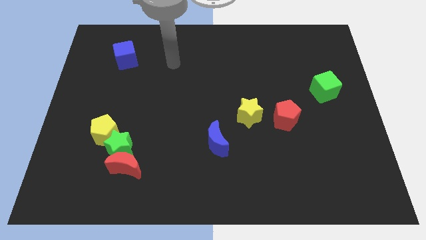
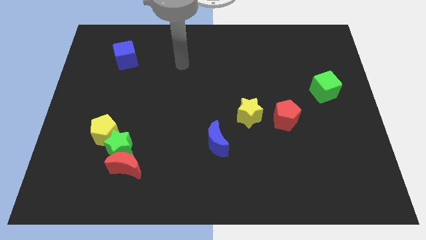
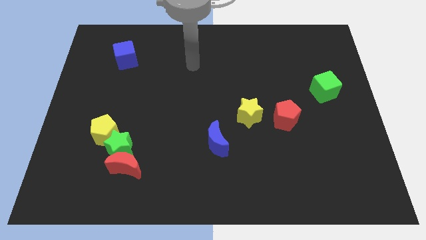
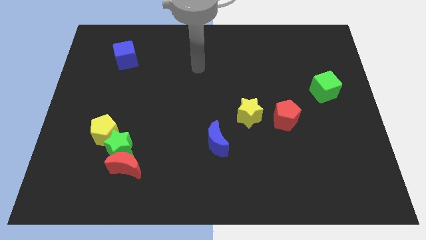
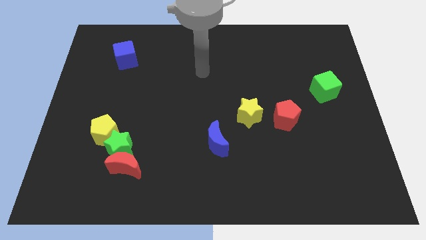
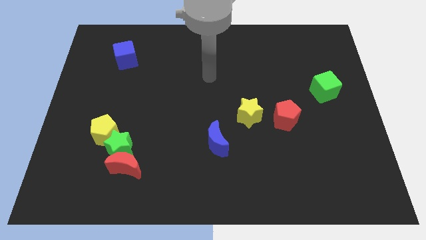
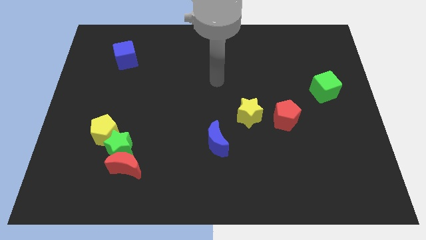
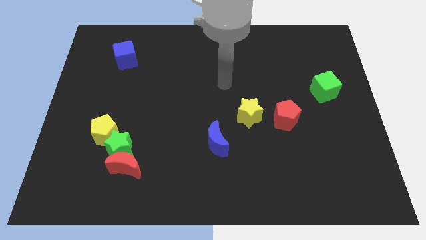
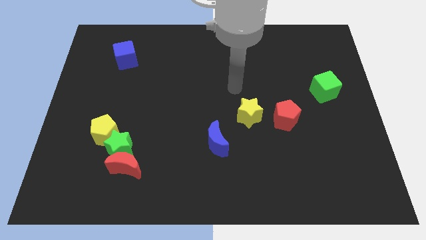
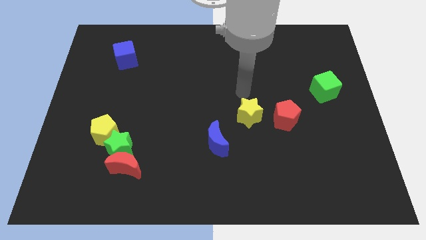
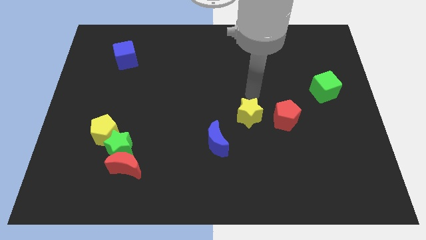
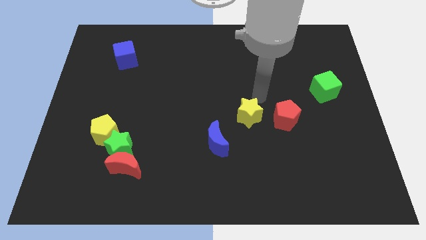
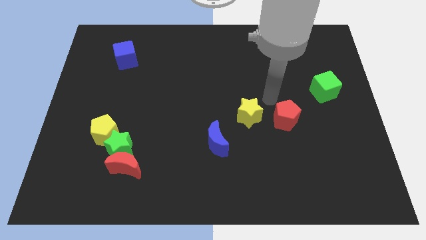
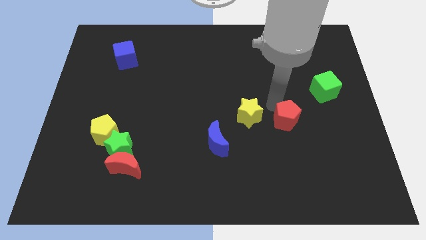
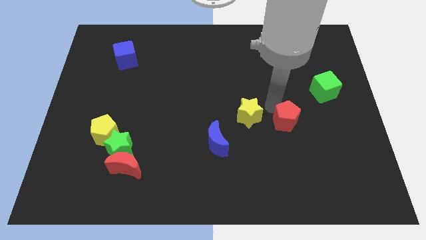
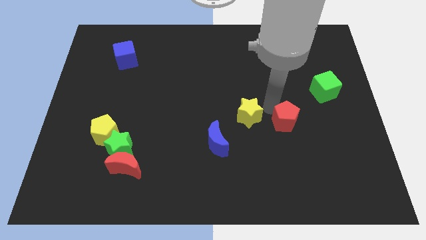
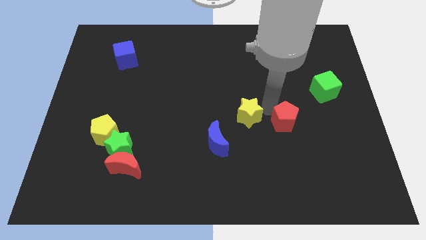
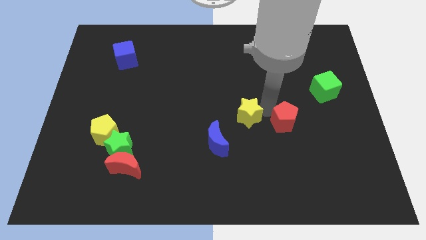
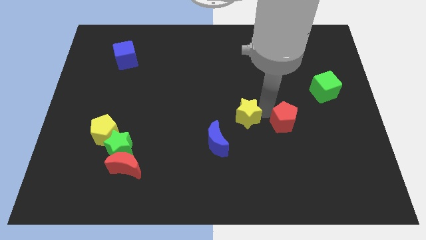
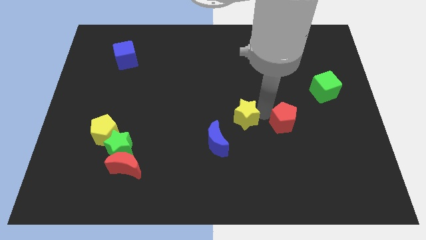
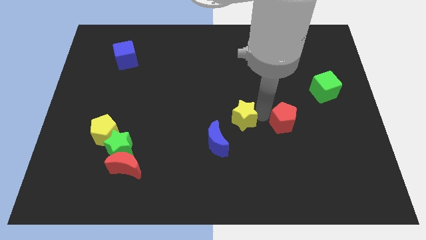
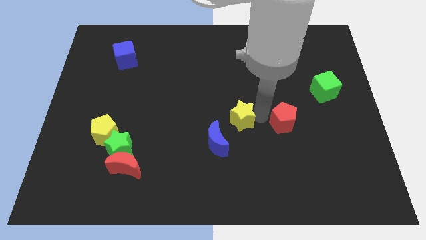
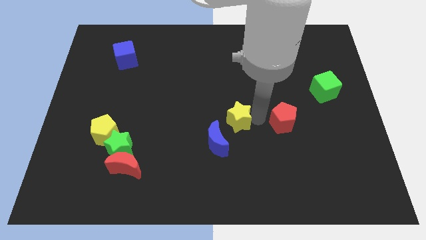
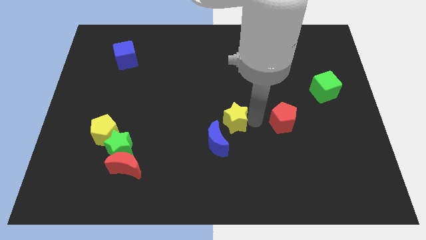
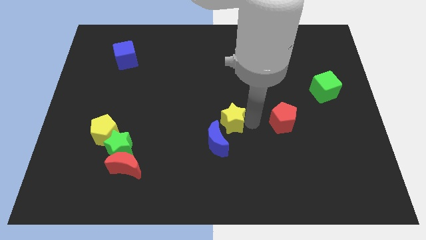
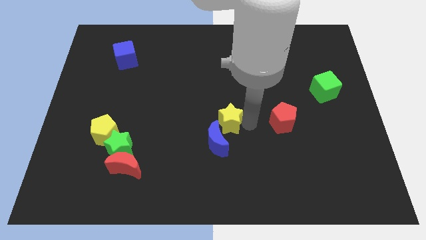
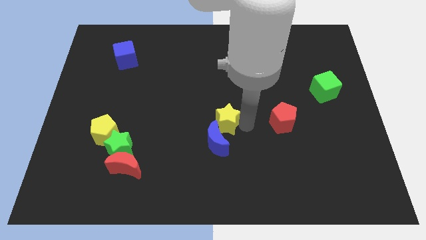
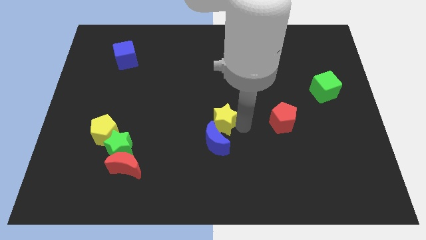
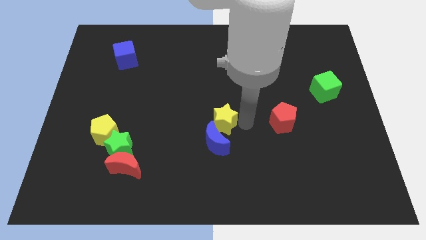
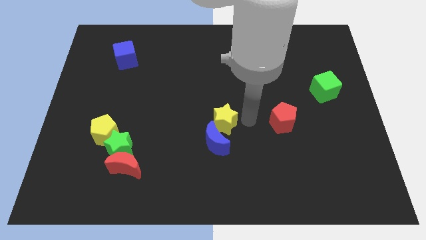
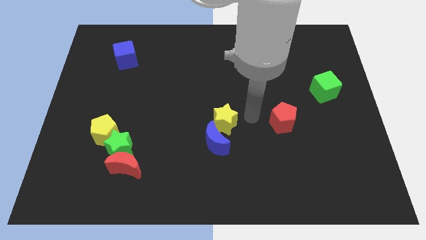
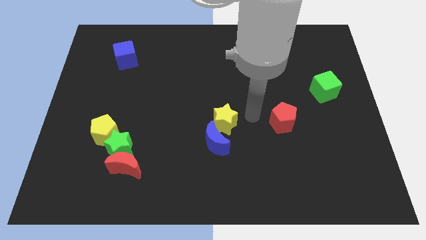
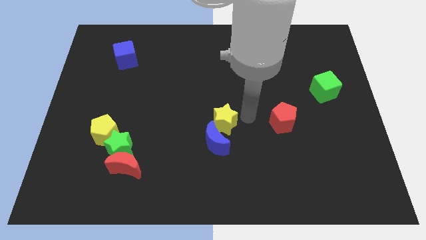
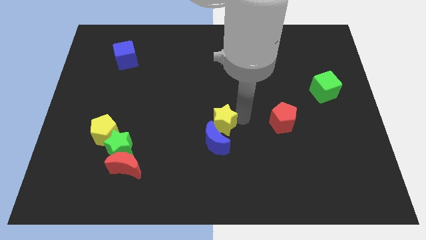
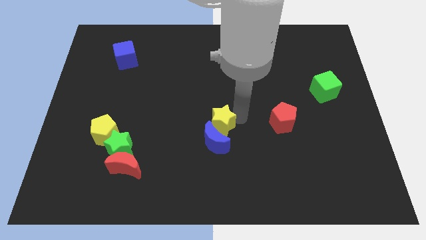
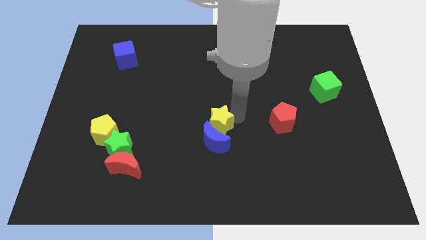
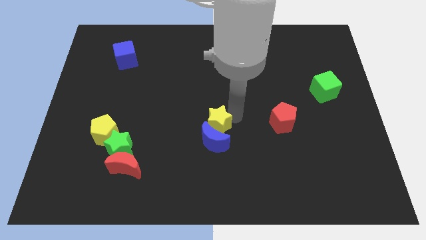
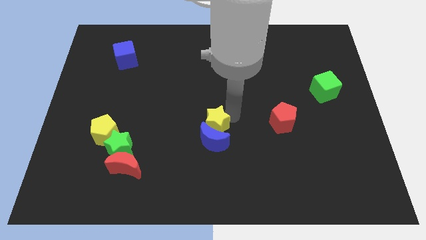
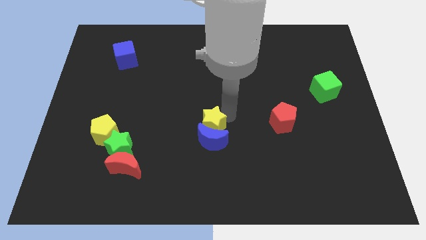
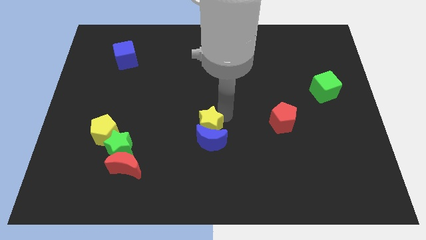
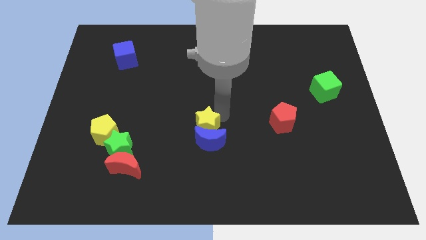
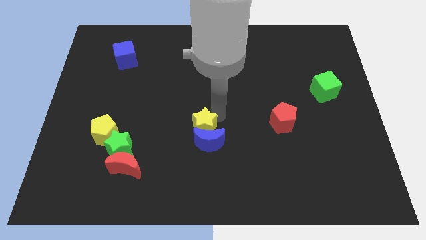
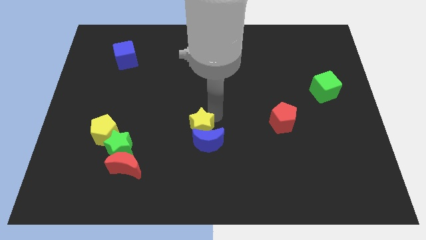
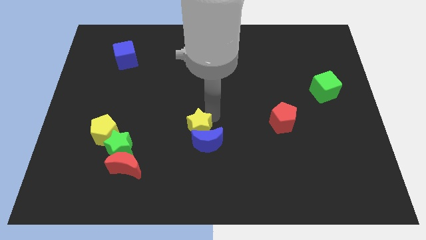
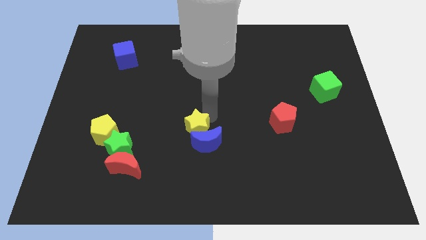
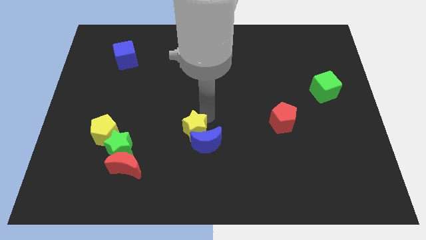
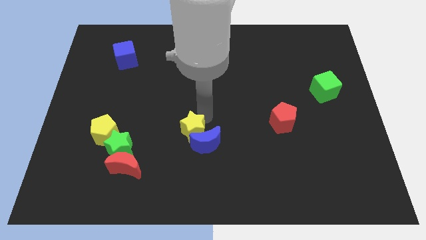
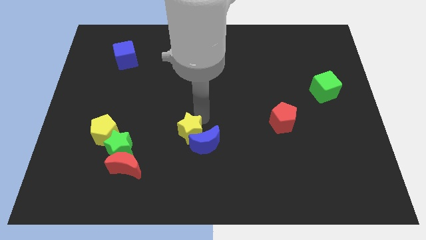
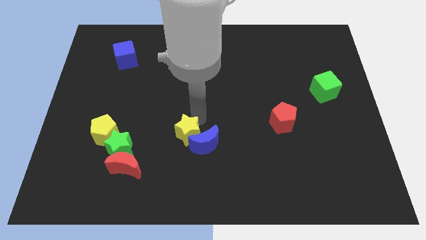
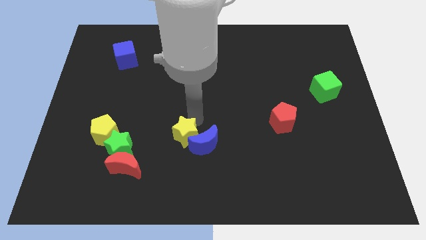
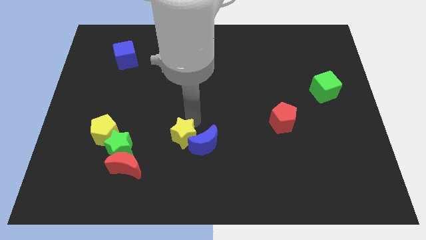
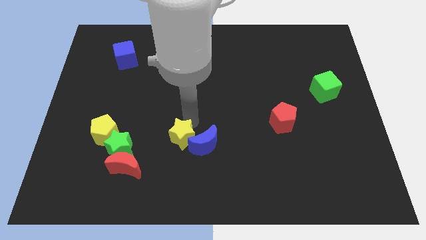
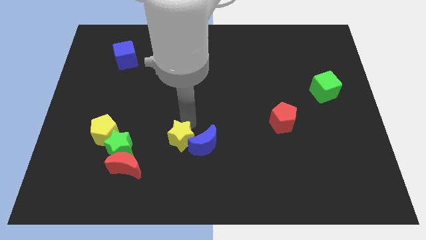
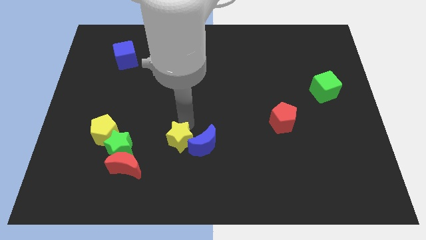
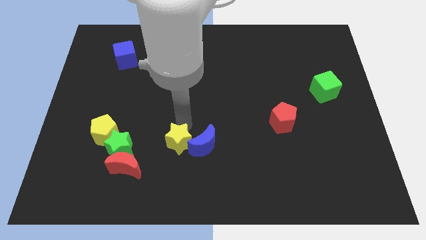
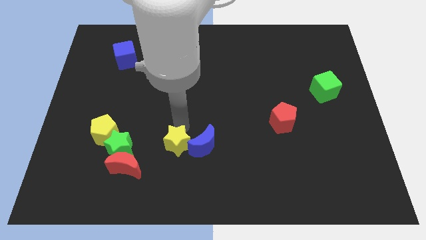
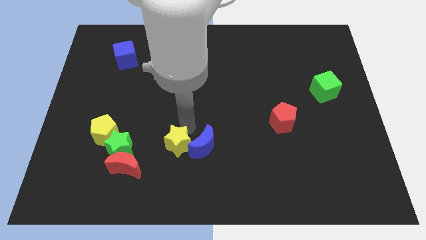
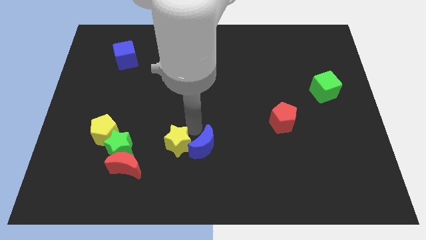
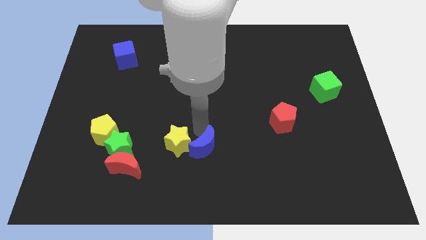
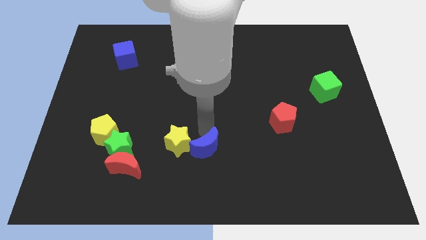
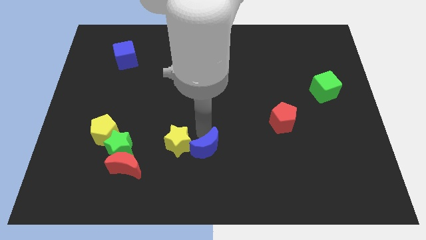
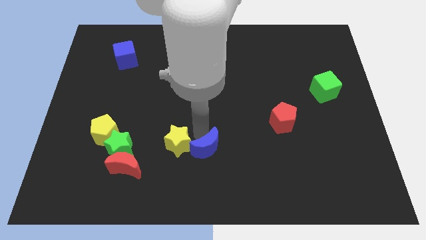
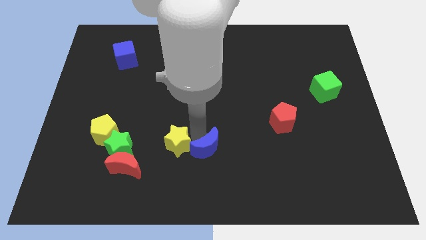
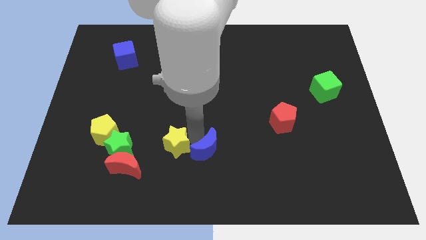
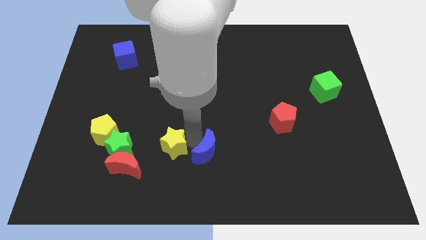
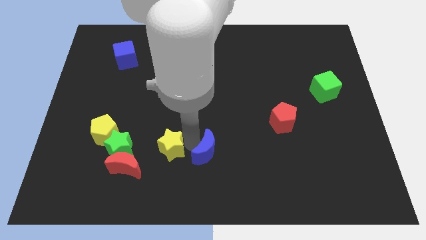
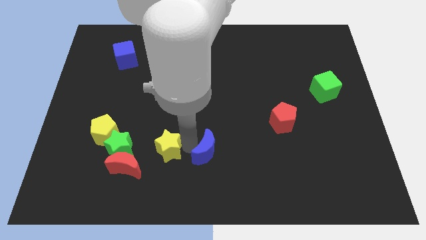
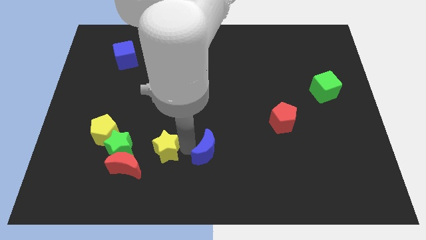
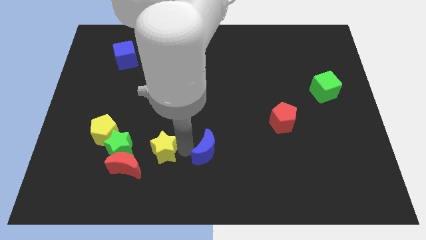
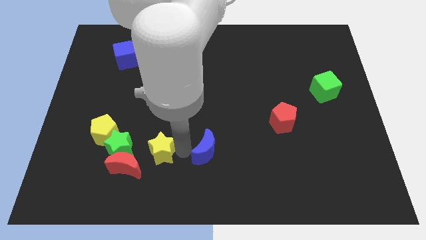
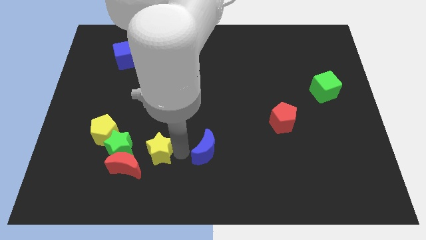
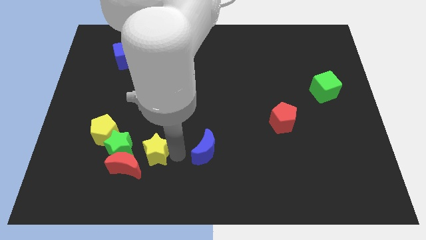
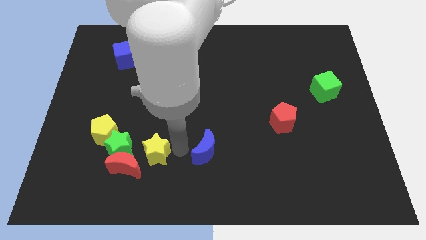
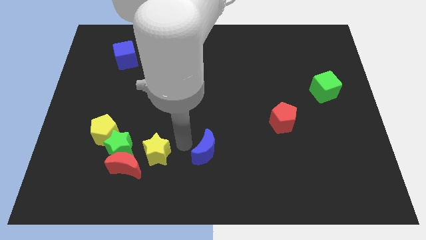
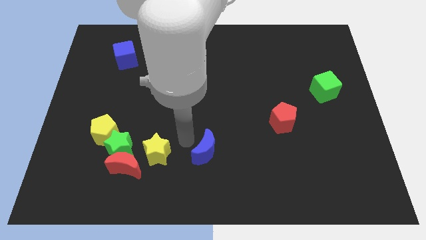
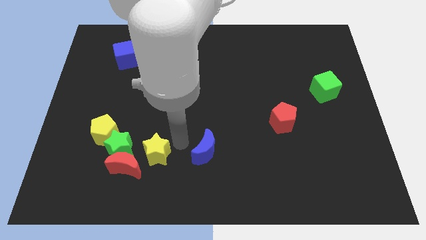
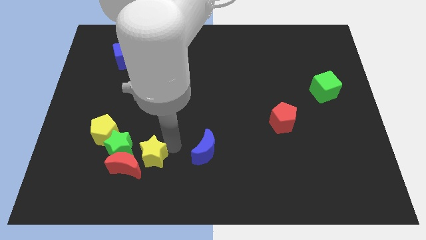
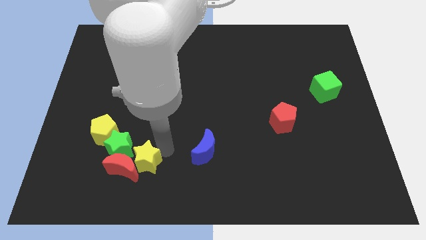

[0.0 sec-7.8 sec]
move the yellow star next to the red moon
